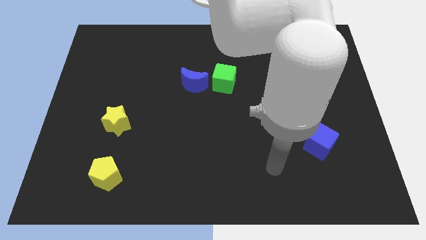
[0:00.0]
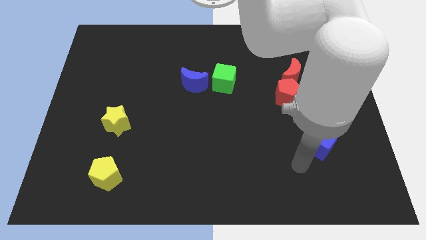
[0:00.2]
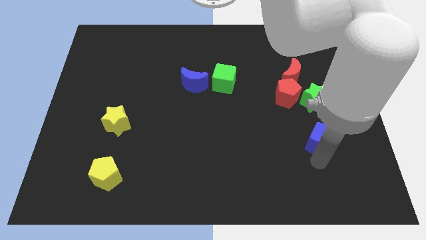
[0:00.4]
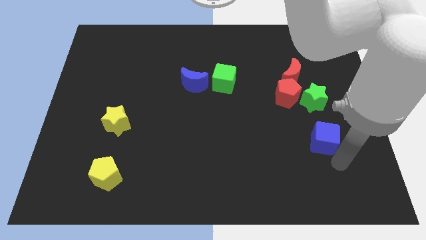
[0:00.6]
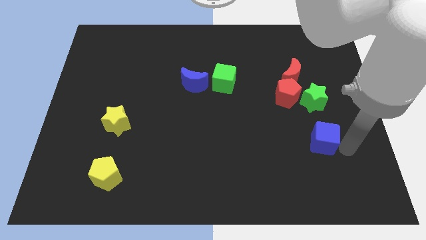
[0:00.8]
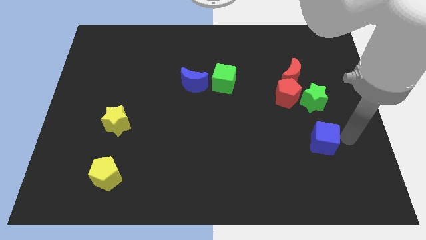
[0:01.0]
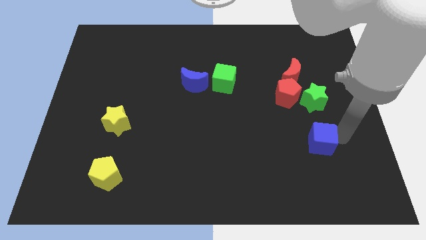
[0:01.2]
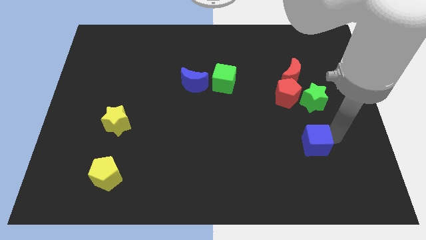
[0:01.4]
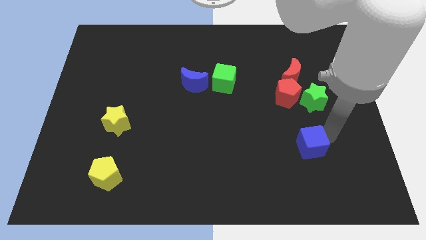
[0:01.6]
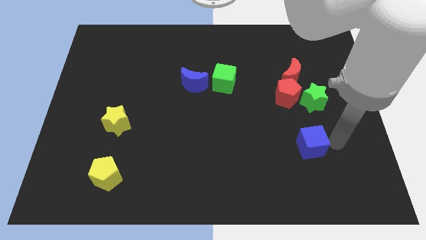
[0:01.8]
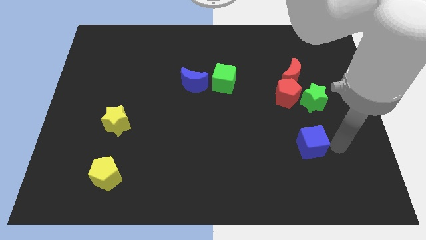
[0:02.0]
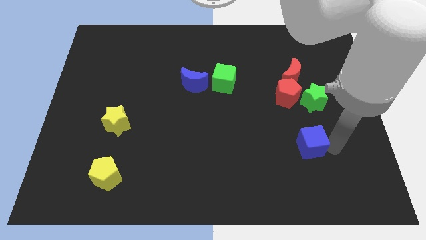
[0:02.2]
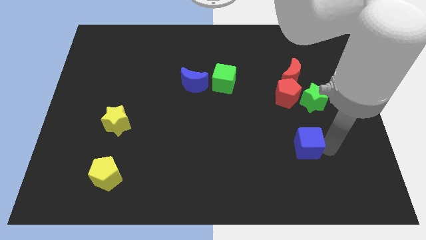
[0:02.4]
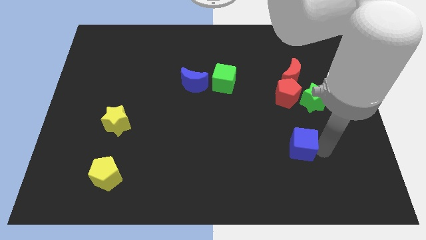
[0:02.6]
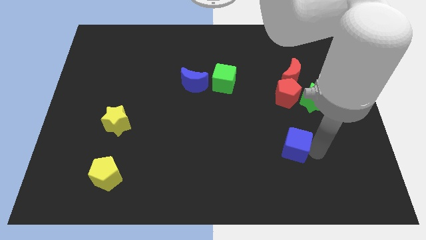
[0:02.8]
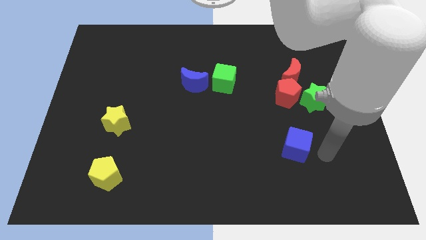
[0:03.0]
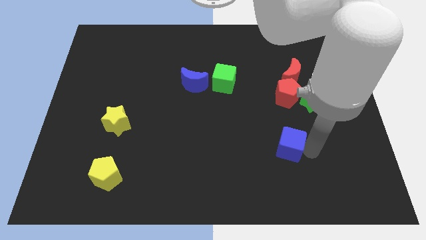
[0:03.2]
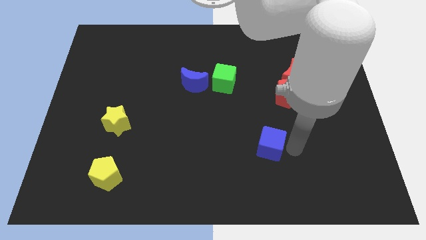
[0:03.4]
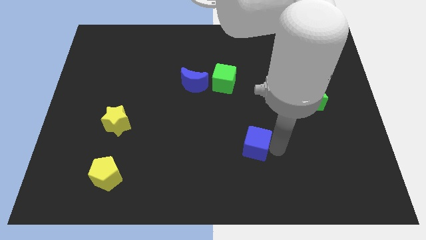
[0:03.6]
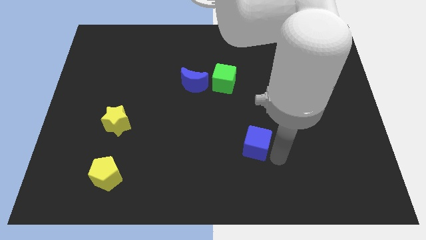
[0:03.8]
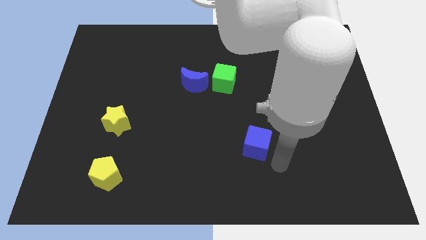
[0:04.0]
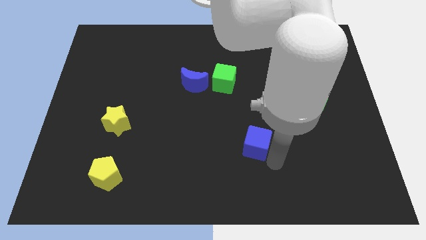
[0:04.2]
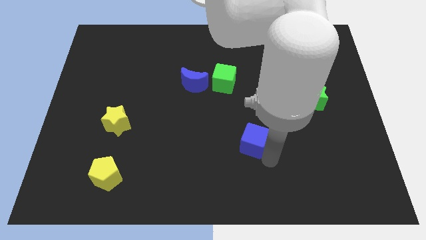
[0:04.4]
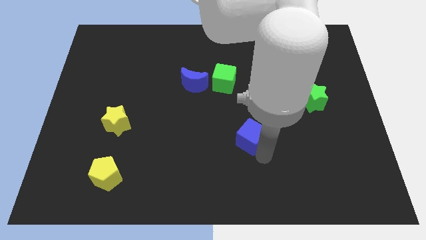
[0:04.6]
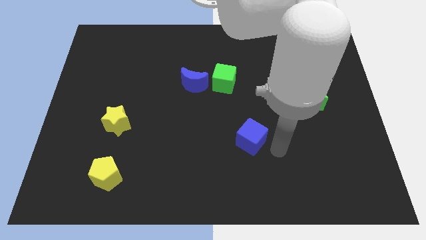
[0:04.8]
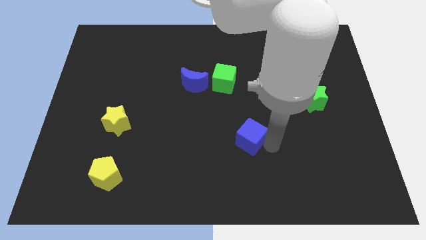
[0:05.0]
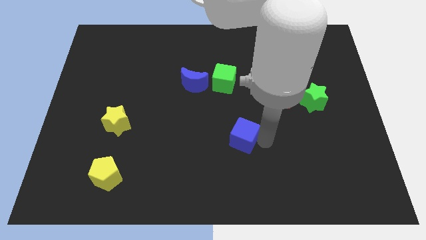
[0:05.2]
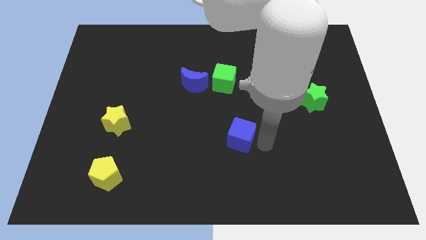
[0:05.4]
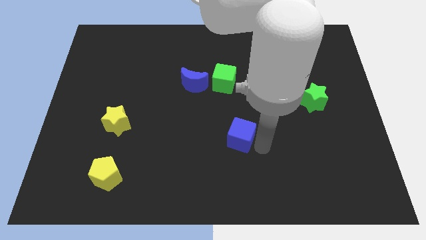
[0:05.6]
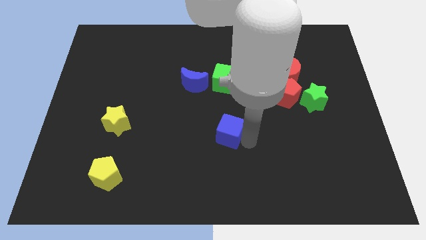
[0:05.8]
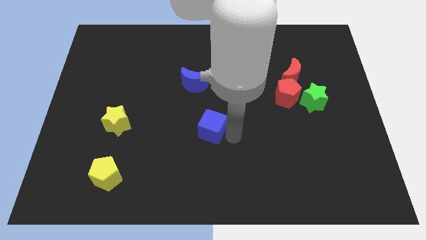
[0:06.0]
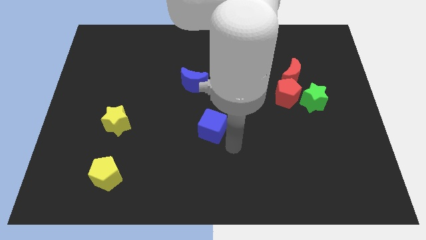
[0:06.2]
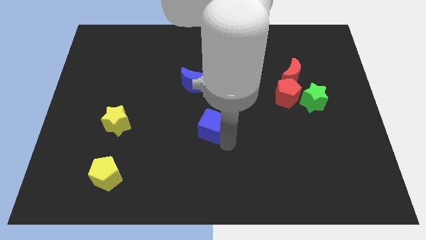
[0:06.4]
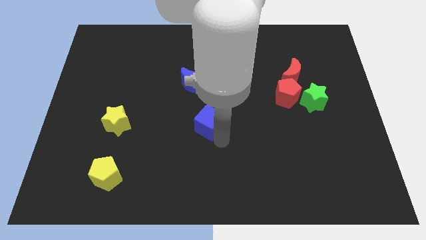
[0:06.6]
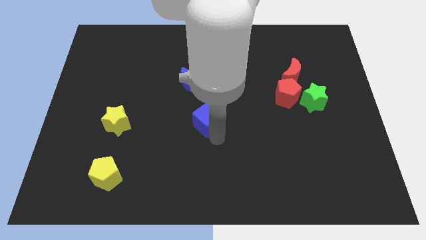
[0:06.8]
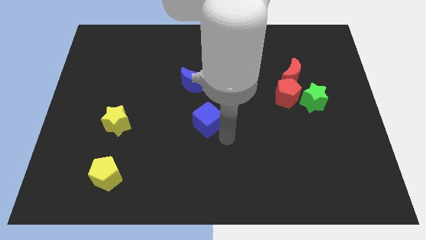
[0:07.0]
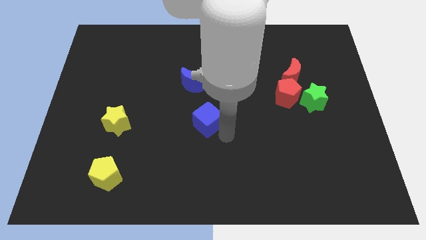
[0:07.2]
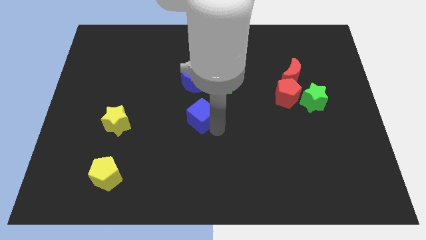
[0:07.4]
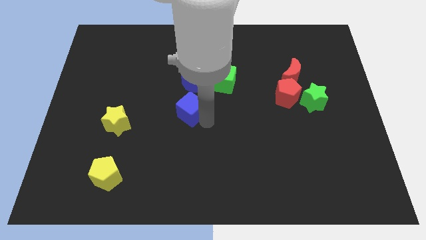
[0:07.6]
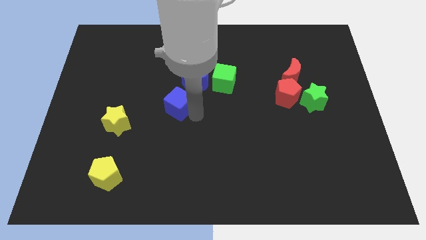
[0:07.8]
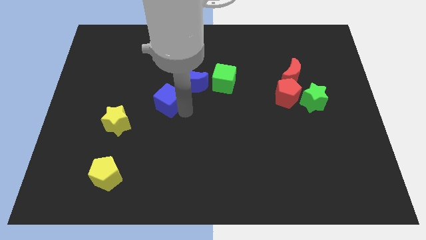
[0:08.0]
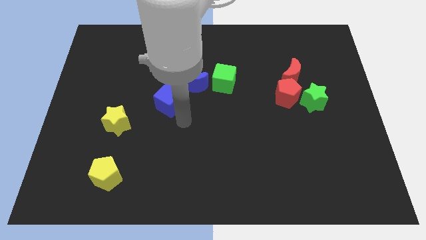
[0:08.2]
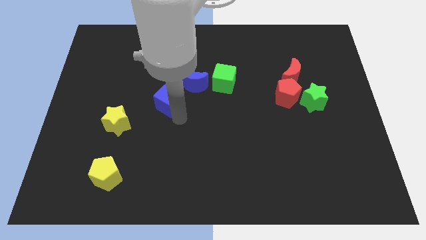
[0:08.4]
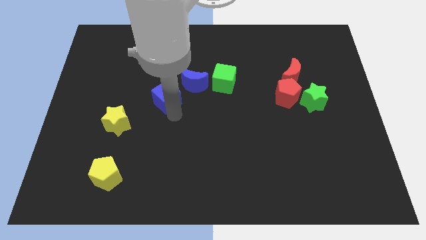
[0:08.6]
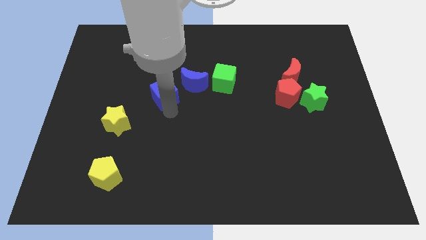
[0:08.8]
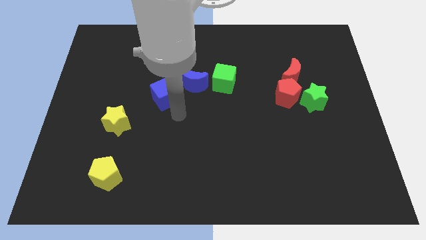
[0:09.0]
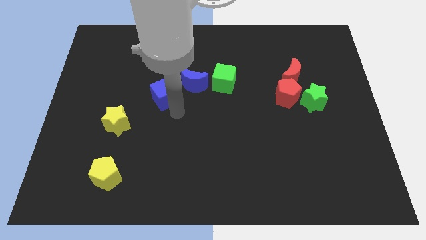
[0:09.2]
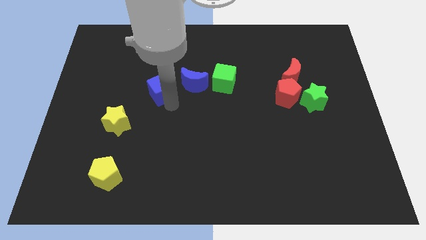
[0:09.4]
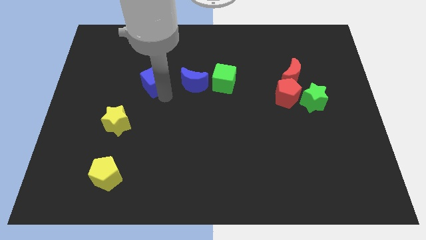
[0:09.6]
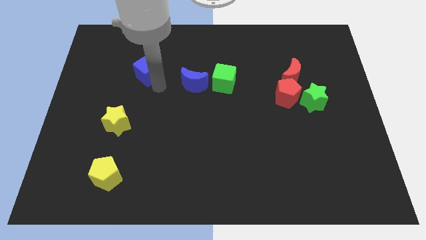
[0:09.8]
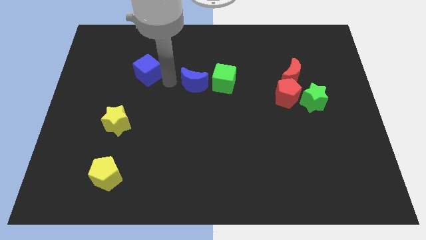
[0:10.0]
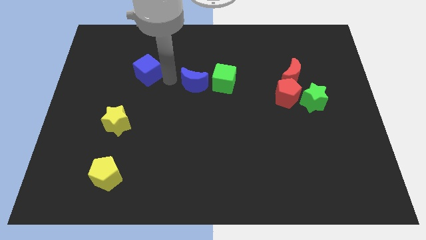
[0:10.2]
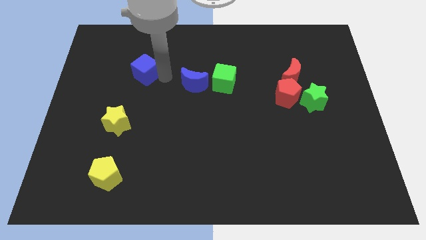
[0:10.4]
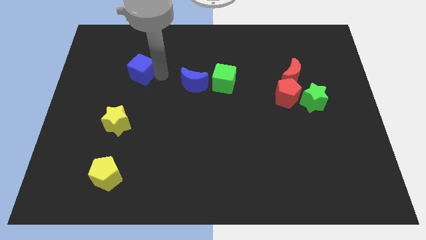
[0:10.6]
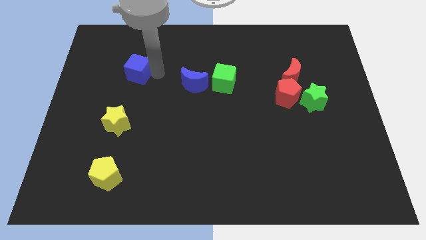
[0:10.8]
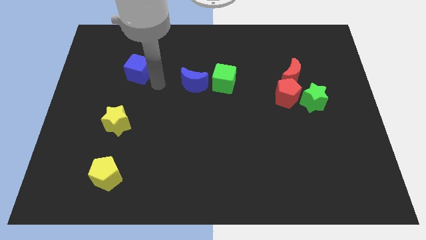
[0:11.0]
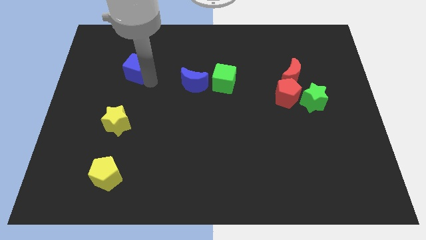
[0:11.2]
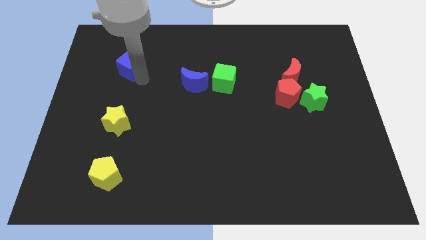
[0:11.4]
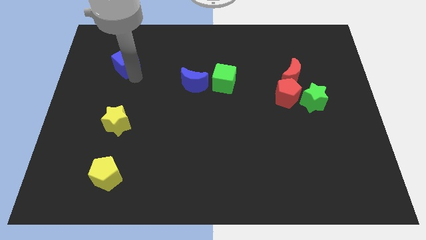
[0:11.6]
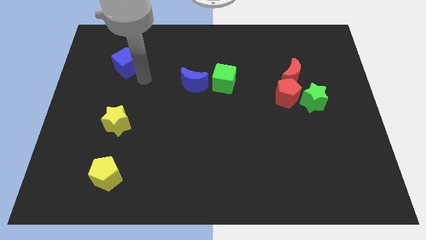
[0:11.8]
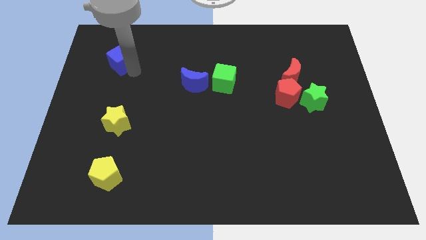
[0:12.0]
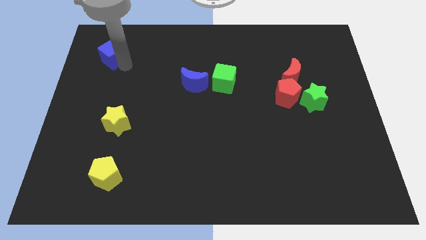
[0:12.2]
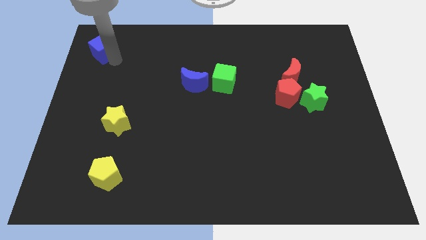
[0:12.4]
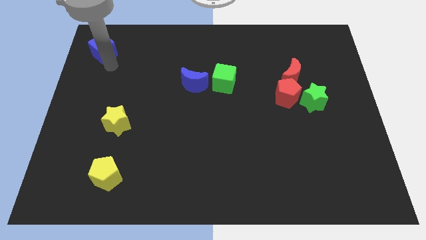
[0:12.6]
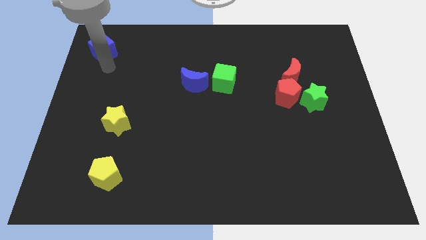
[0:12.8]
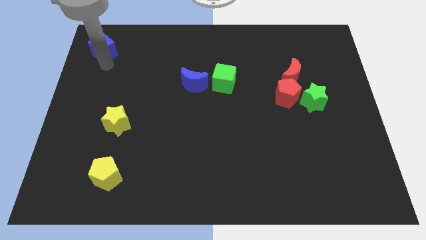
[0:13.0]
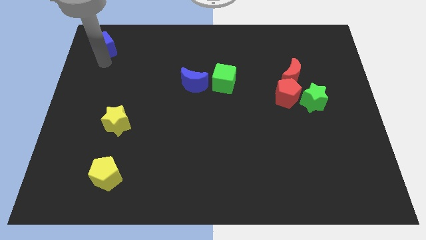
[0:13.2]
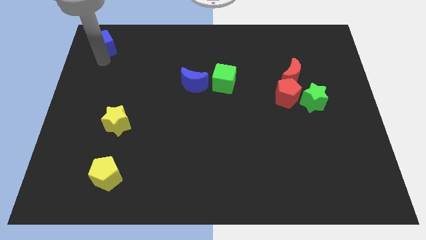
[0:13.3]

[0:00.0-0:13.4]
slide the blue cube to the top left corner

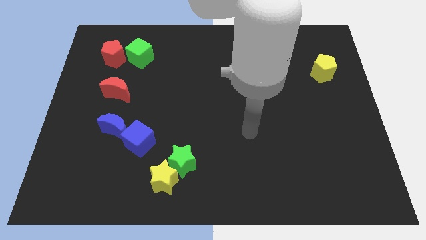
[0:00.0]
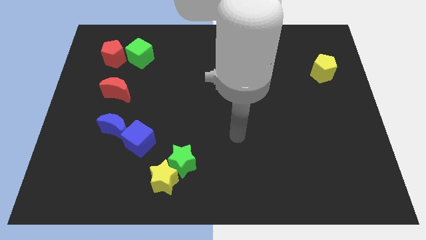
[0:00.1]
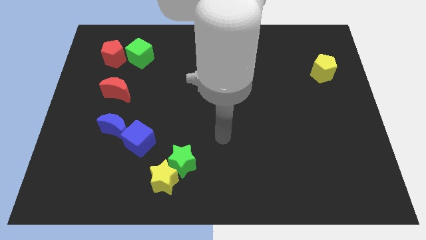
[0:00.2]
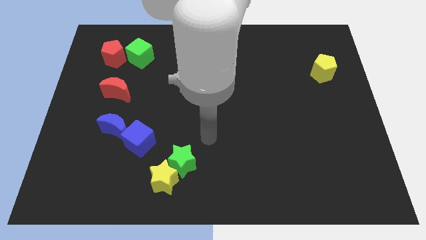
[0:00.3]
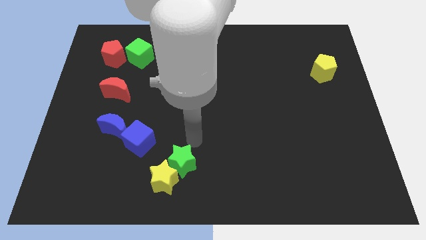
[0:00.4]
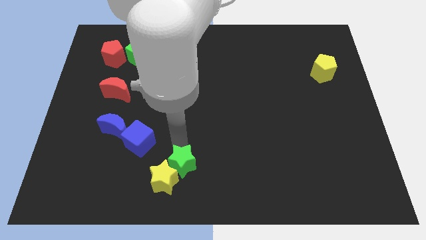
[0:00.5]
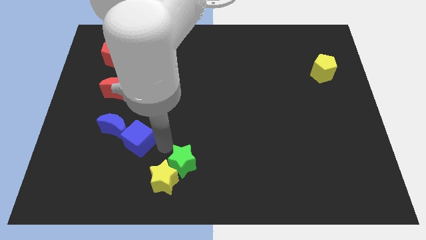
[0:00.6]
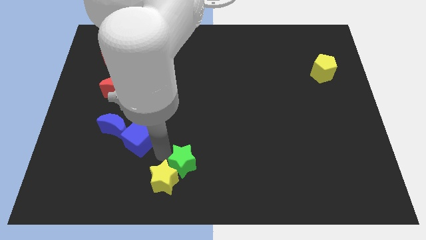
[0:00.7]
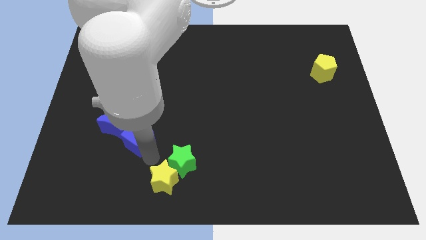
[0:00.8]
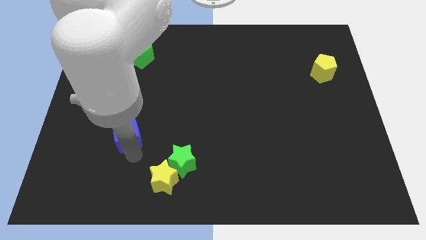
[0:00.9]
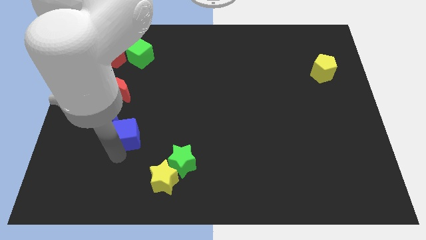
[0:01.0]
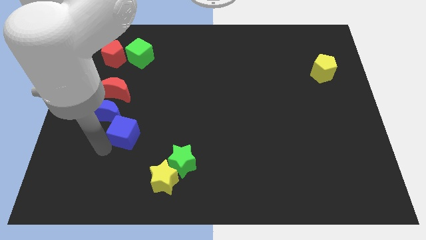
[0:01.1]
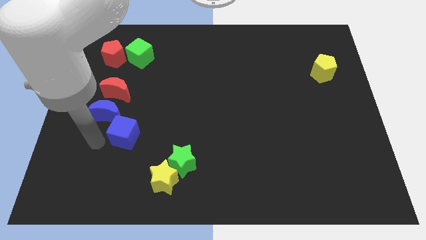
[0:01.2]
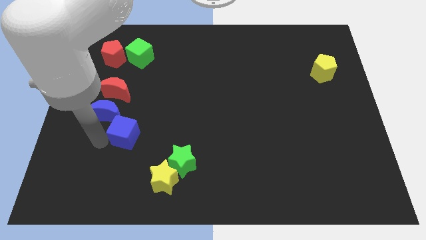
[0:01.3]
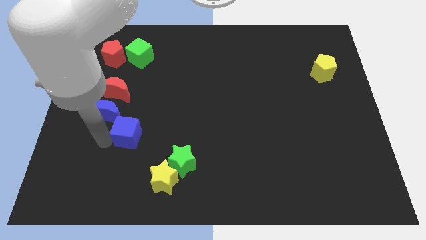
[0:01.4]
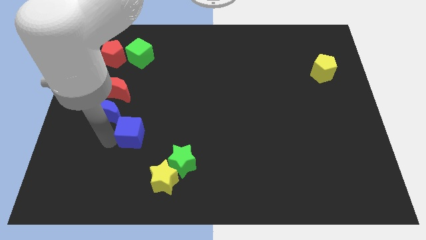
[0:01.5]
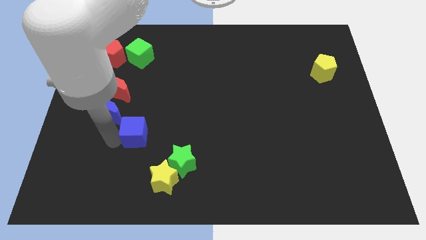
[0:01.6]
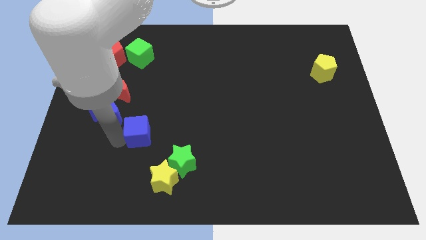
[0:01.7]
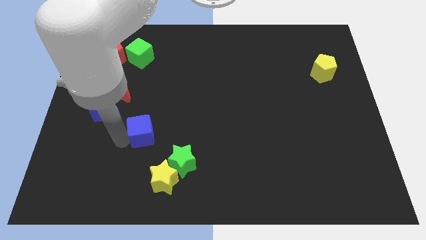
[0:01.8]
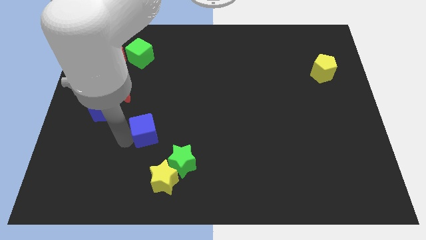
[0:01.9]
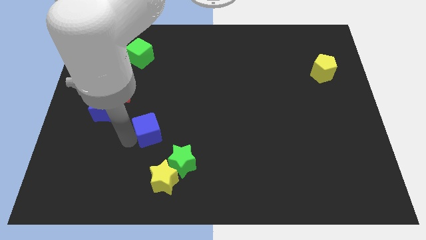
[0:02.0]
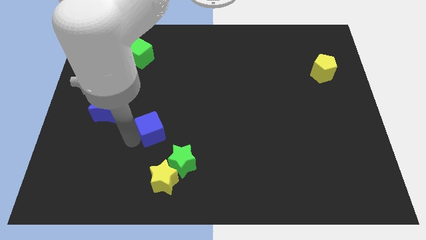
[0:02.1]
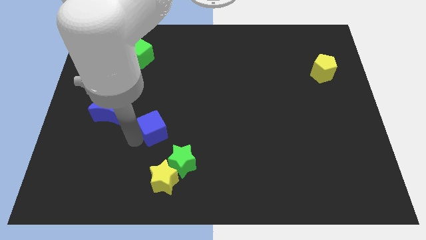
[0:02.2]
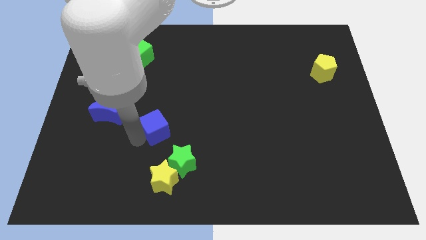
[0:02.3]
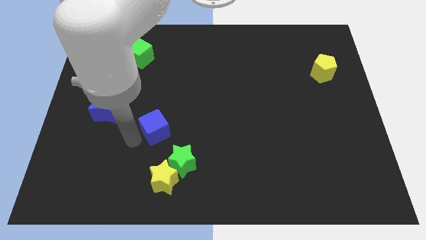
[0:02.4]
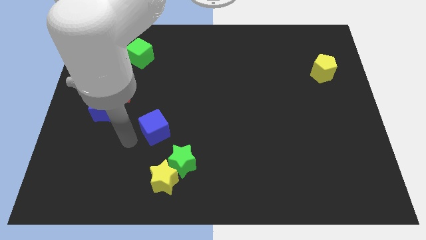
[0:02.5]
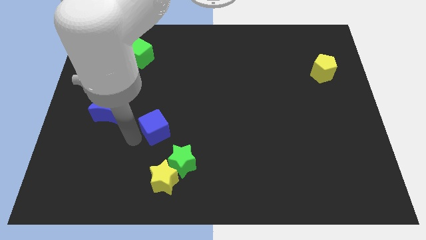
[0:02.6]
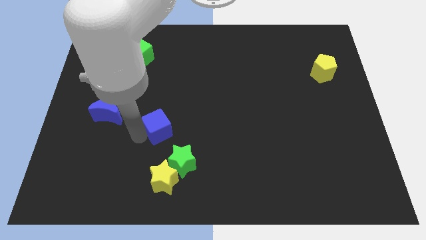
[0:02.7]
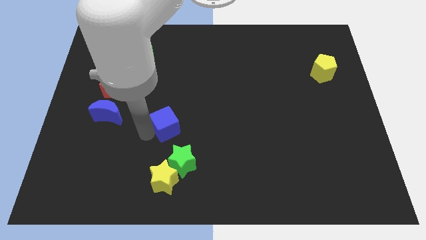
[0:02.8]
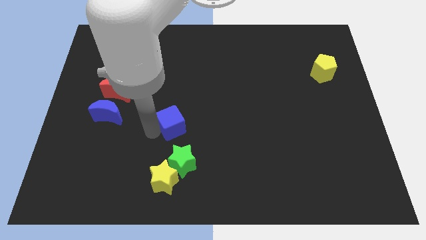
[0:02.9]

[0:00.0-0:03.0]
slide the blue cube to the center
